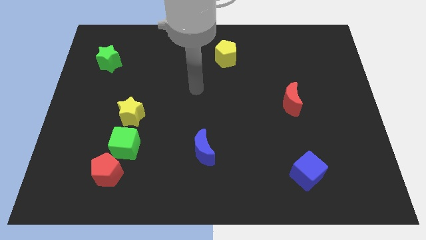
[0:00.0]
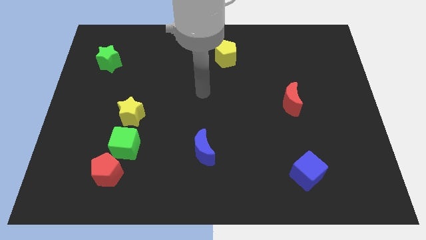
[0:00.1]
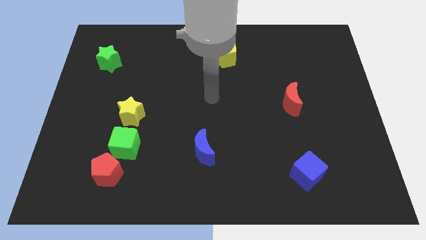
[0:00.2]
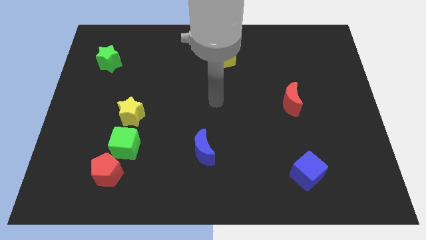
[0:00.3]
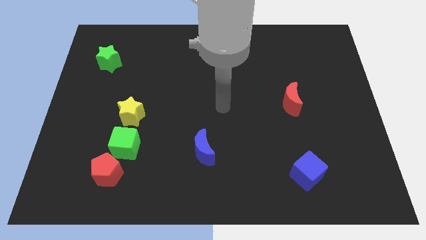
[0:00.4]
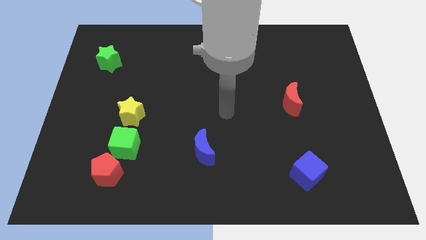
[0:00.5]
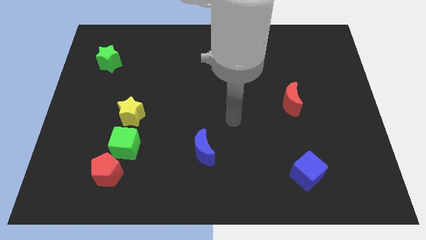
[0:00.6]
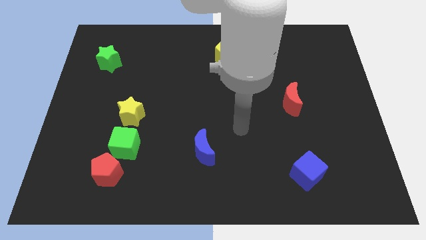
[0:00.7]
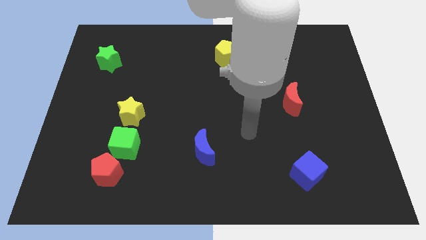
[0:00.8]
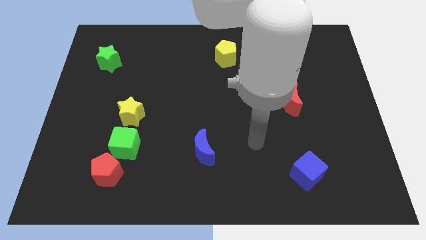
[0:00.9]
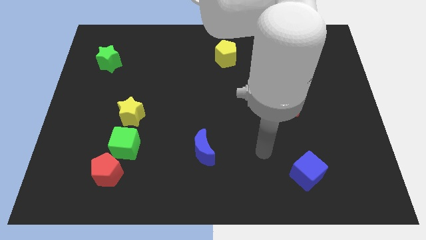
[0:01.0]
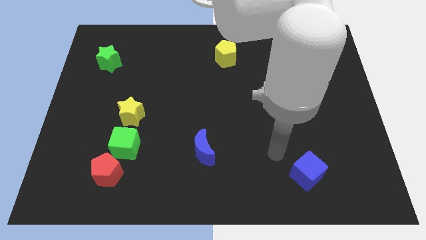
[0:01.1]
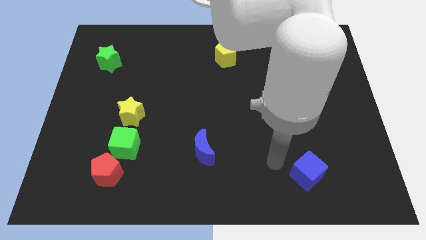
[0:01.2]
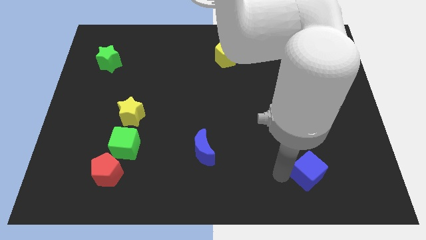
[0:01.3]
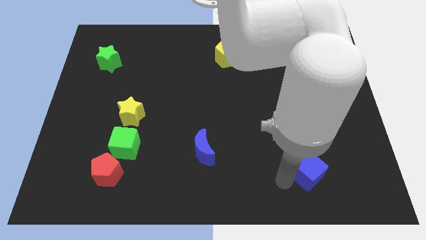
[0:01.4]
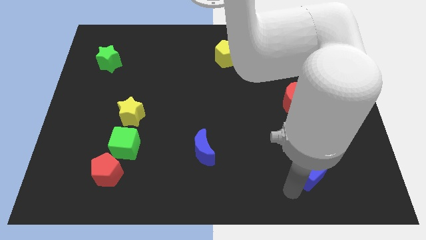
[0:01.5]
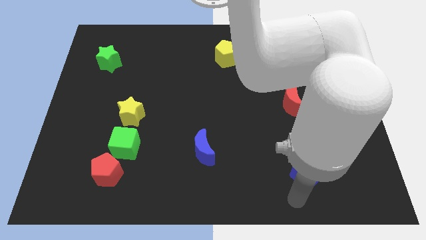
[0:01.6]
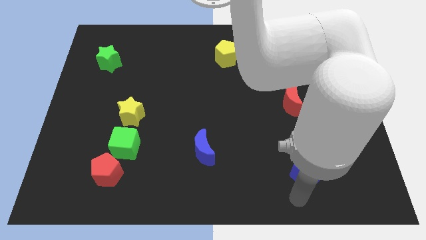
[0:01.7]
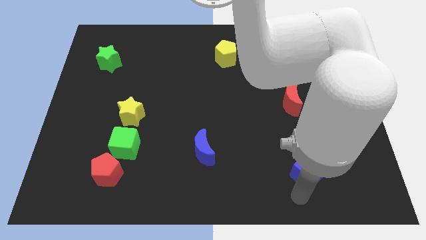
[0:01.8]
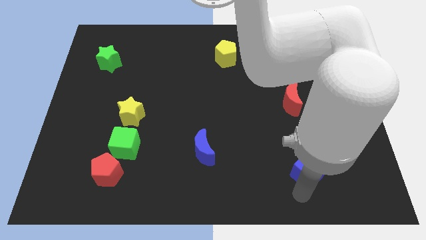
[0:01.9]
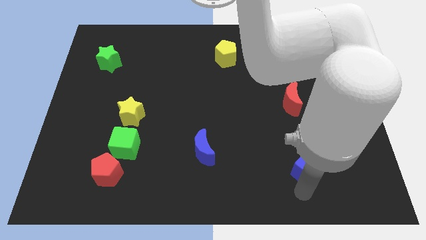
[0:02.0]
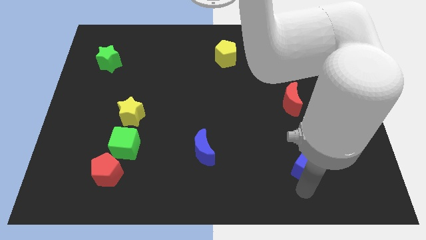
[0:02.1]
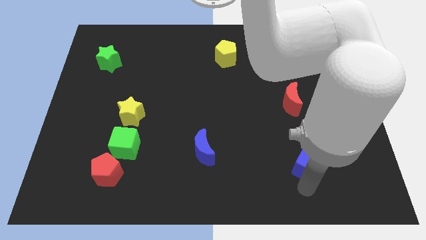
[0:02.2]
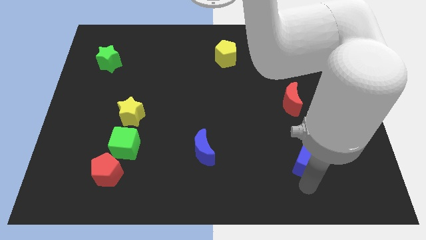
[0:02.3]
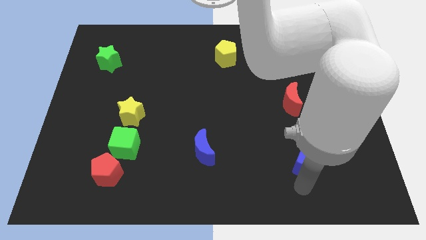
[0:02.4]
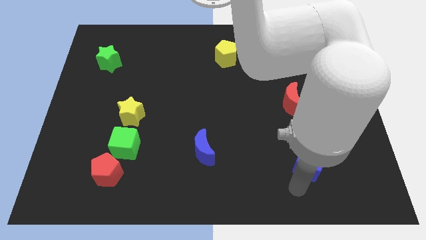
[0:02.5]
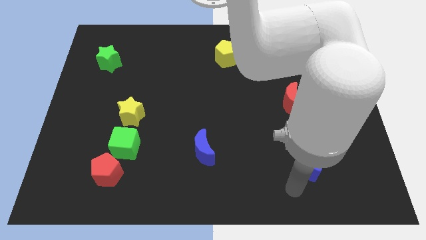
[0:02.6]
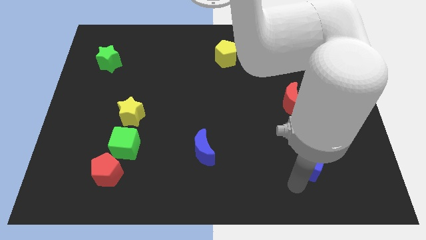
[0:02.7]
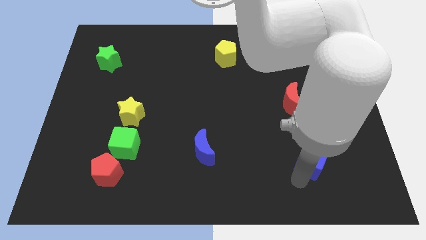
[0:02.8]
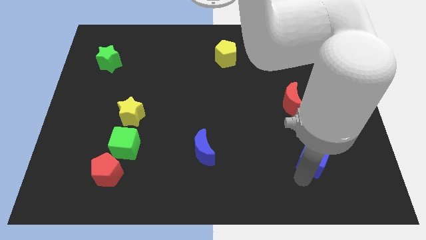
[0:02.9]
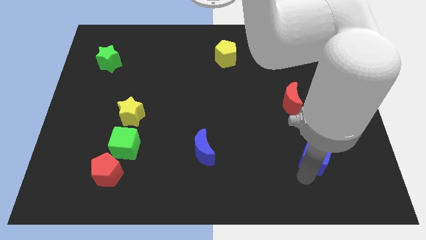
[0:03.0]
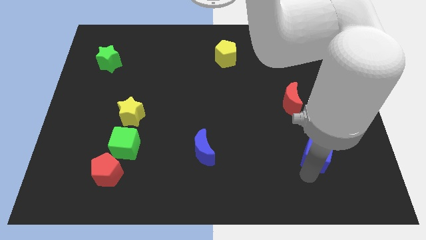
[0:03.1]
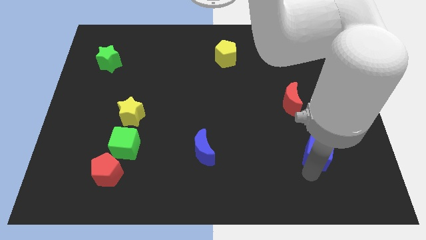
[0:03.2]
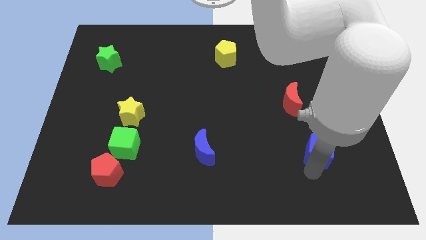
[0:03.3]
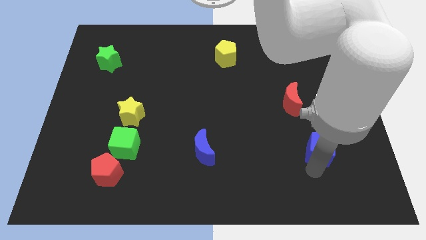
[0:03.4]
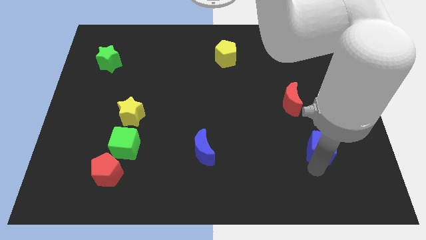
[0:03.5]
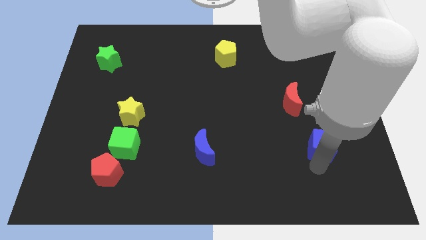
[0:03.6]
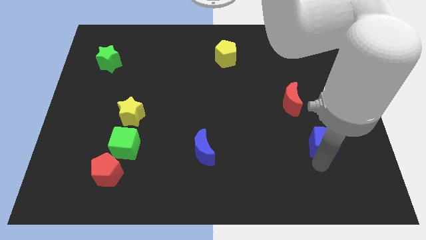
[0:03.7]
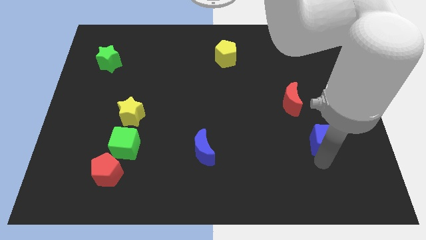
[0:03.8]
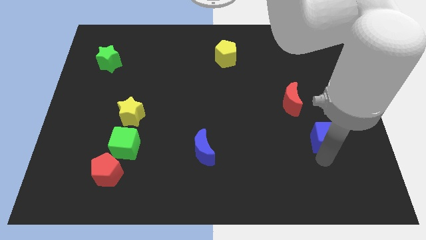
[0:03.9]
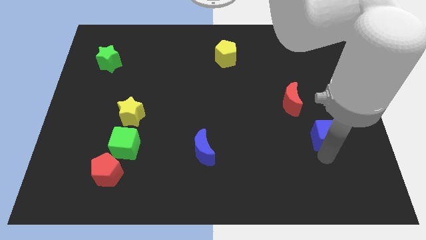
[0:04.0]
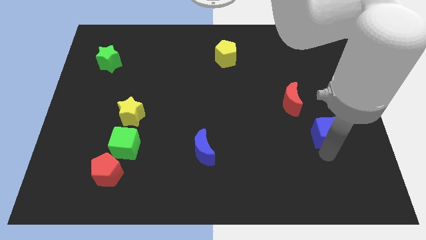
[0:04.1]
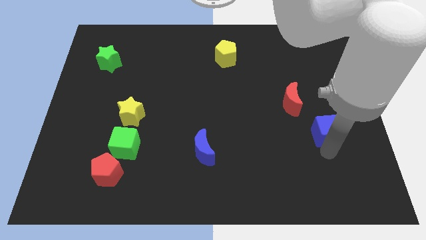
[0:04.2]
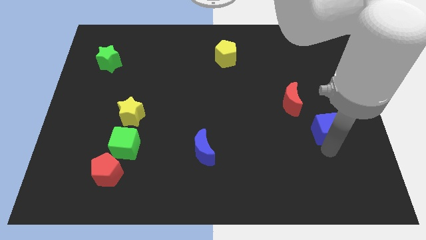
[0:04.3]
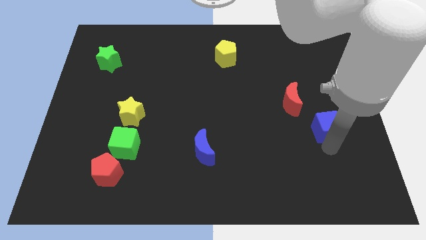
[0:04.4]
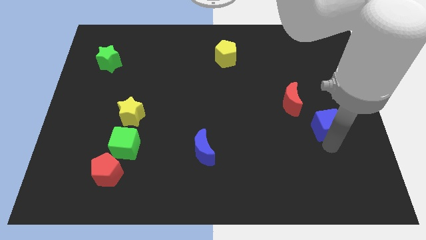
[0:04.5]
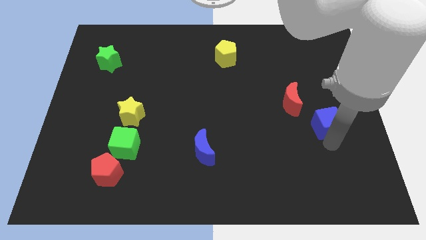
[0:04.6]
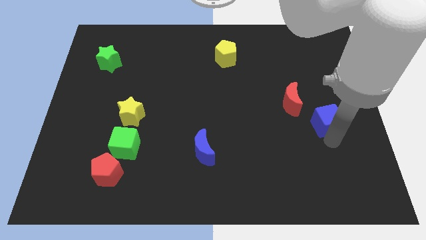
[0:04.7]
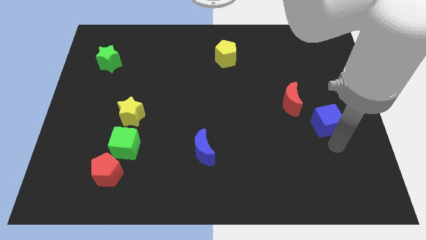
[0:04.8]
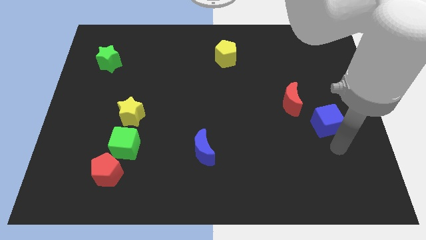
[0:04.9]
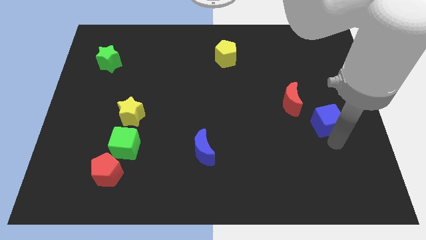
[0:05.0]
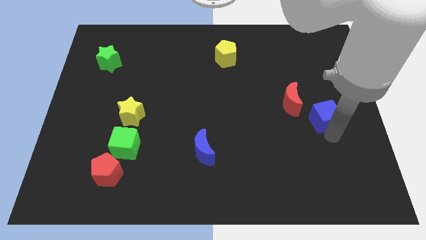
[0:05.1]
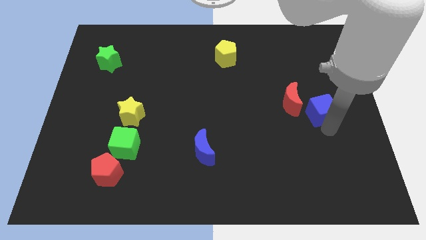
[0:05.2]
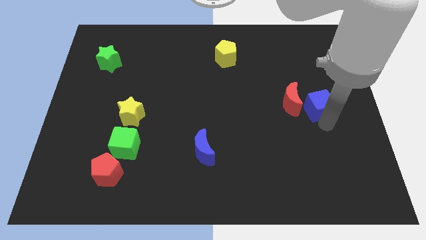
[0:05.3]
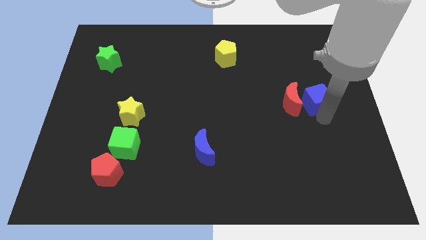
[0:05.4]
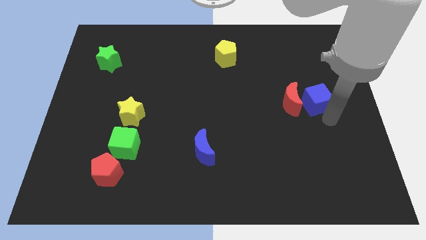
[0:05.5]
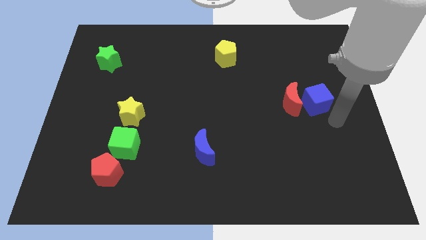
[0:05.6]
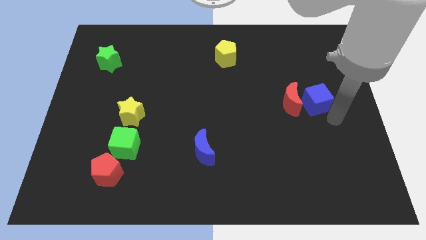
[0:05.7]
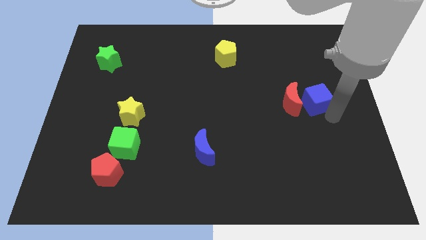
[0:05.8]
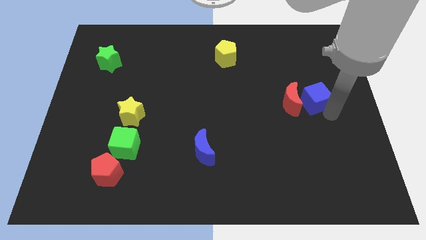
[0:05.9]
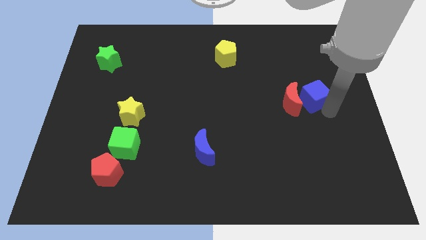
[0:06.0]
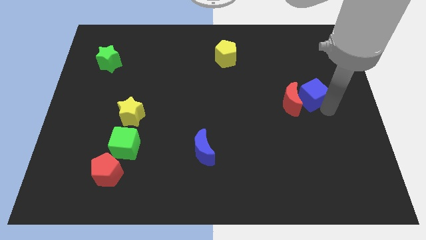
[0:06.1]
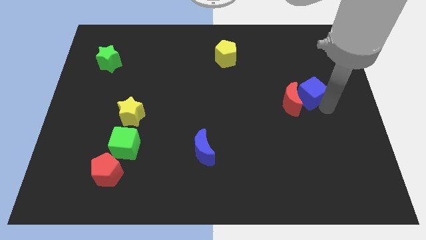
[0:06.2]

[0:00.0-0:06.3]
slide the blue cube upwards

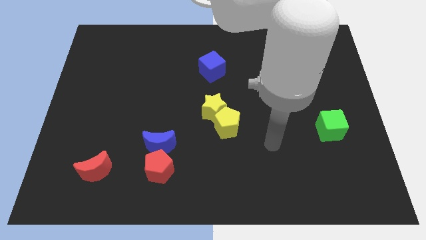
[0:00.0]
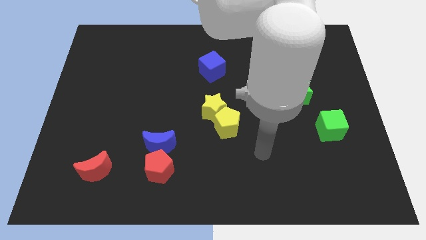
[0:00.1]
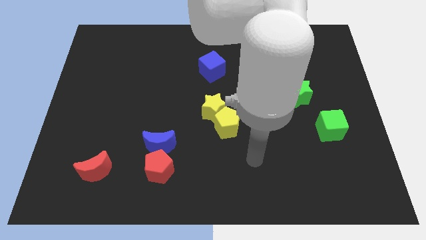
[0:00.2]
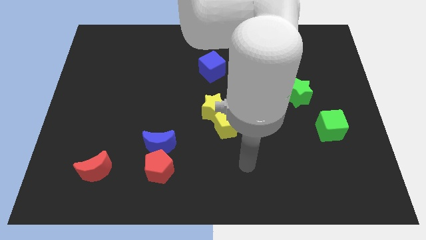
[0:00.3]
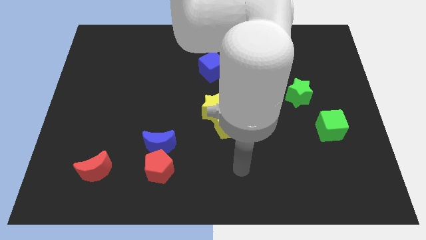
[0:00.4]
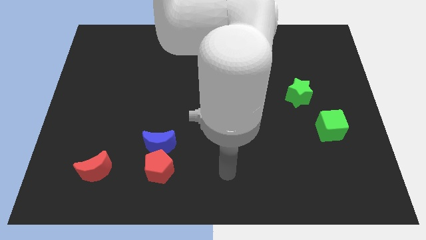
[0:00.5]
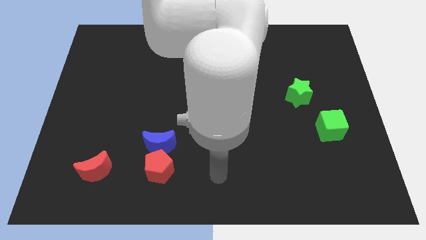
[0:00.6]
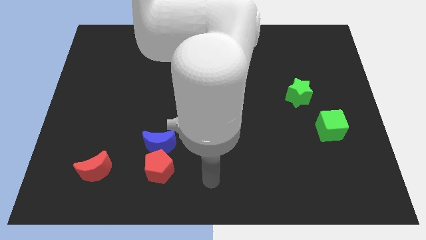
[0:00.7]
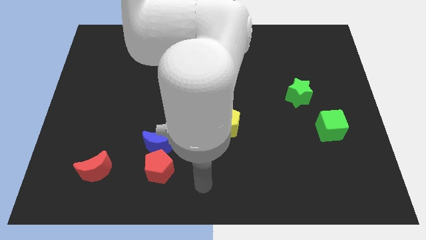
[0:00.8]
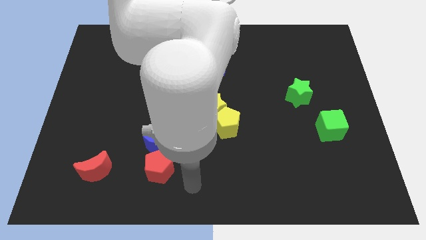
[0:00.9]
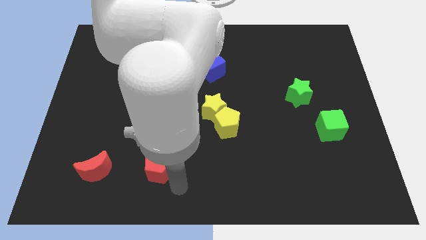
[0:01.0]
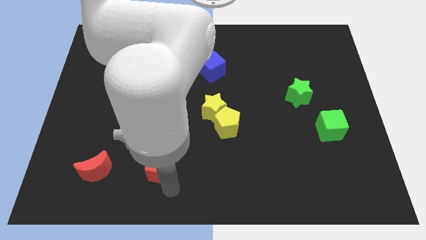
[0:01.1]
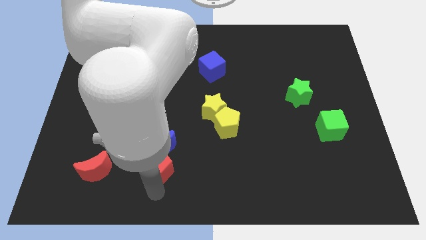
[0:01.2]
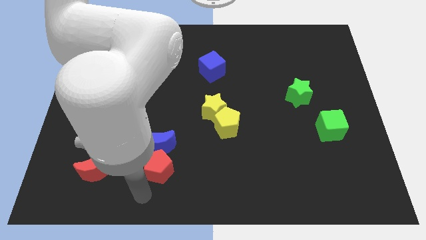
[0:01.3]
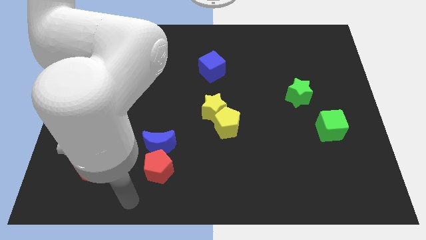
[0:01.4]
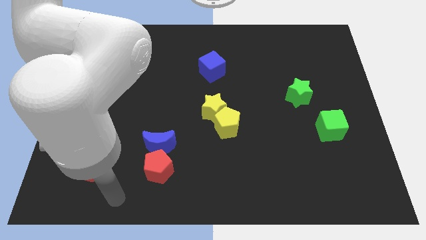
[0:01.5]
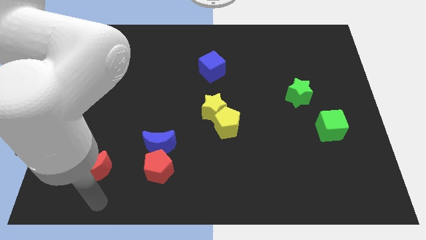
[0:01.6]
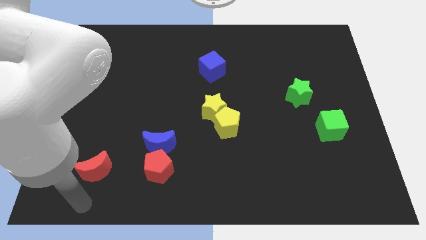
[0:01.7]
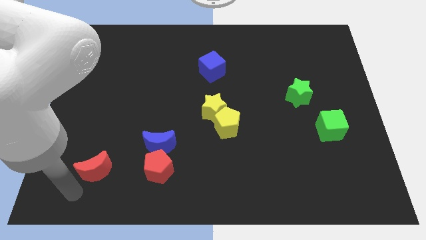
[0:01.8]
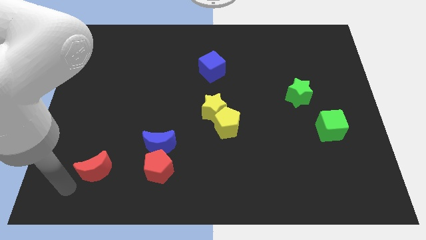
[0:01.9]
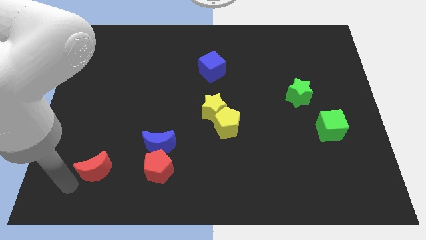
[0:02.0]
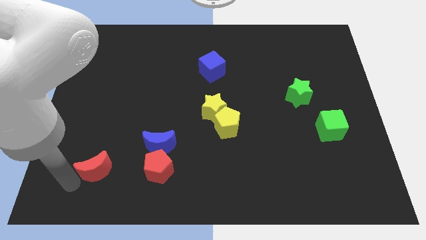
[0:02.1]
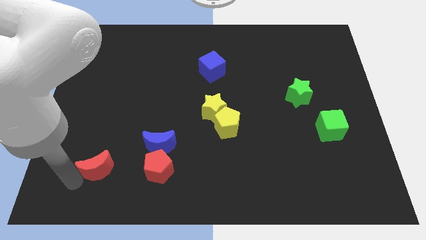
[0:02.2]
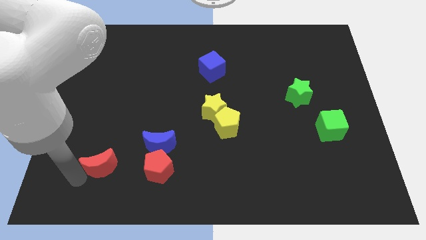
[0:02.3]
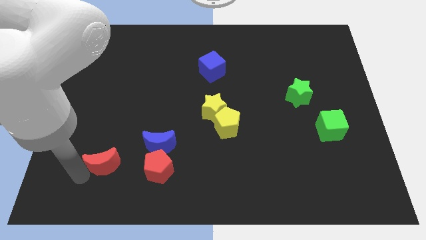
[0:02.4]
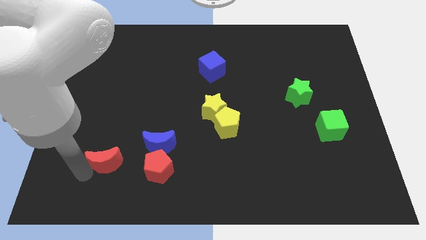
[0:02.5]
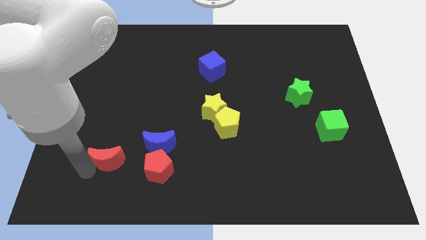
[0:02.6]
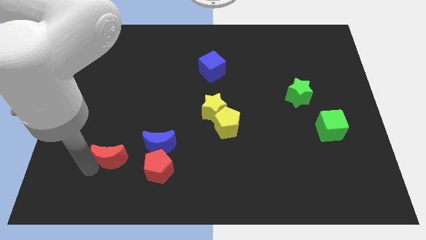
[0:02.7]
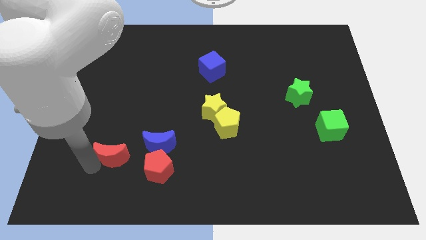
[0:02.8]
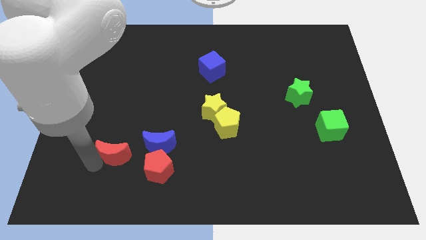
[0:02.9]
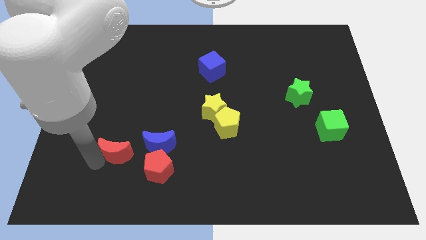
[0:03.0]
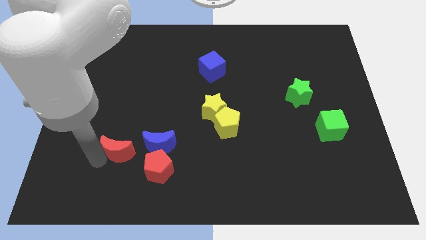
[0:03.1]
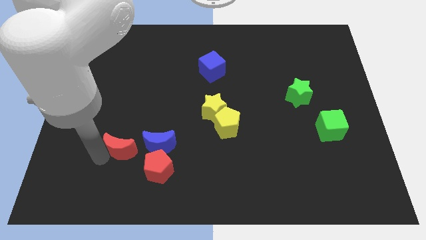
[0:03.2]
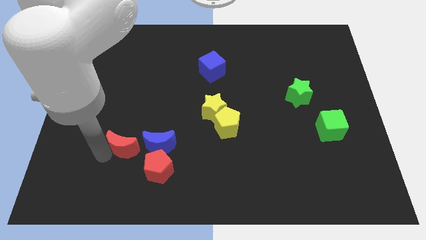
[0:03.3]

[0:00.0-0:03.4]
slightly slide the red moon diagonally up and to the right
